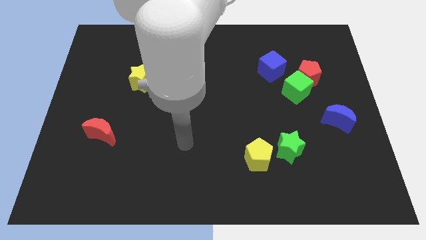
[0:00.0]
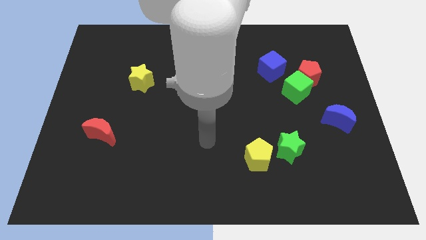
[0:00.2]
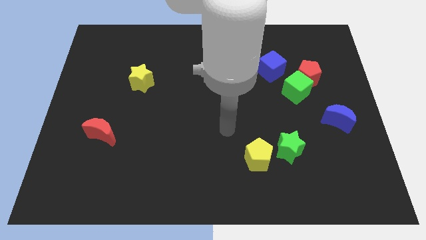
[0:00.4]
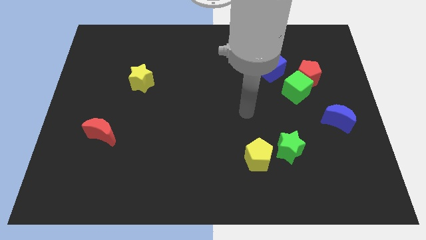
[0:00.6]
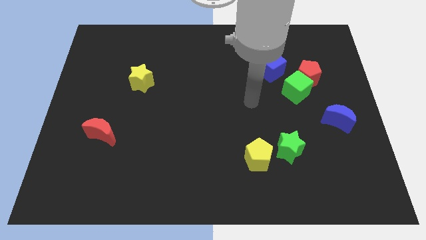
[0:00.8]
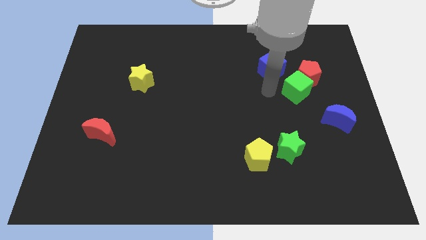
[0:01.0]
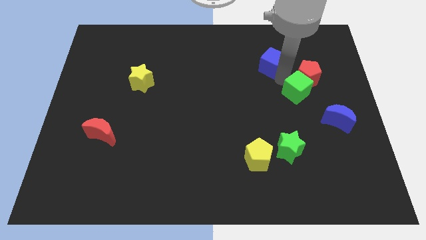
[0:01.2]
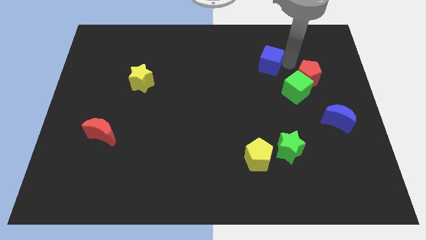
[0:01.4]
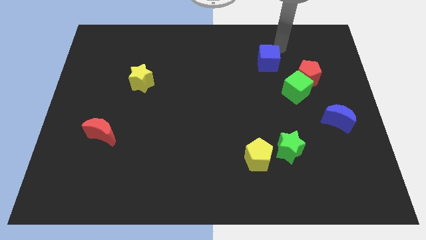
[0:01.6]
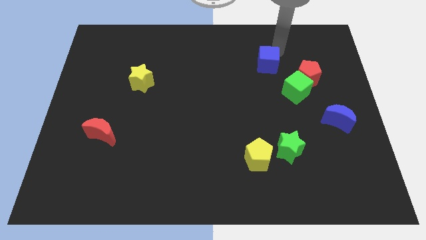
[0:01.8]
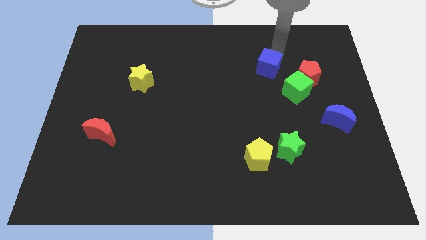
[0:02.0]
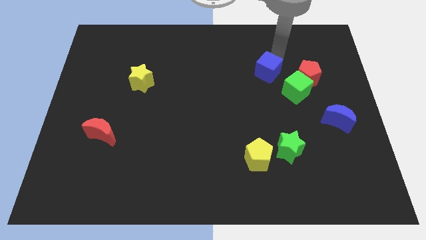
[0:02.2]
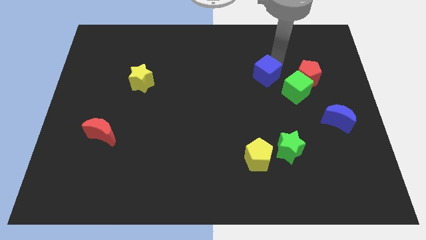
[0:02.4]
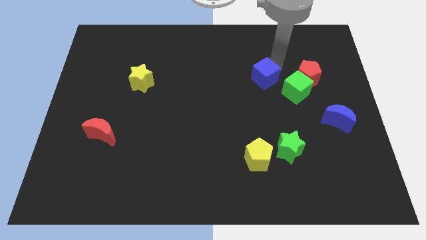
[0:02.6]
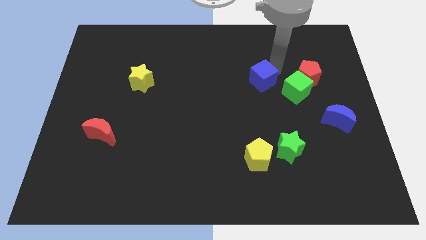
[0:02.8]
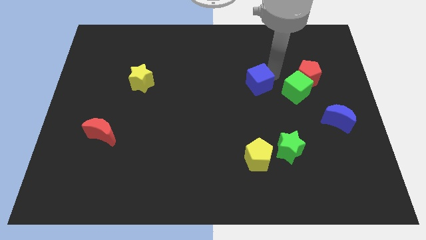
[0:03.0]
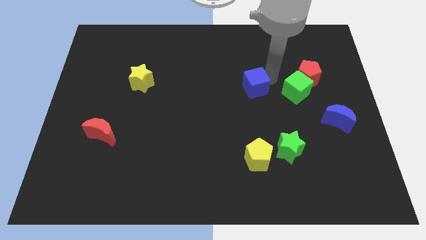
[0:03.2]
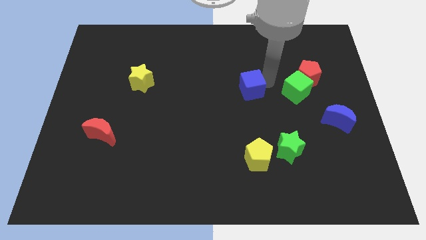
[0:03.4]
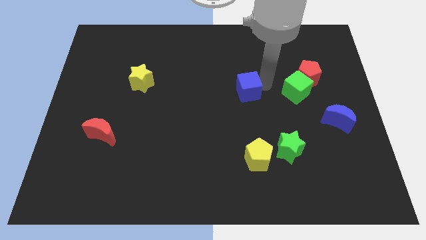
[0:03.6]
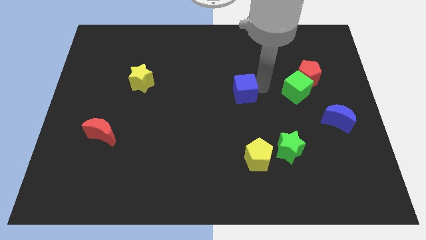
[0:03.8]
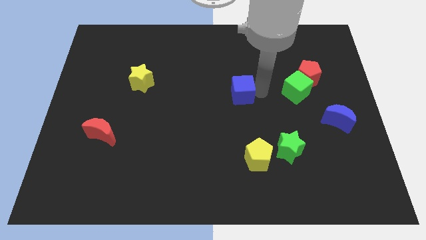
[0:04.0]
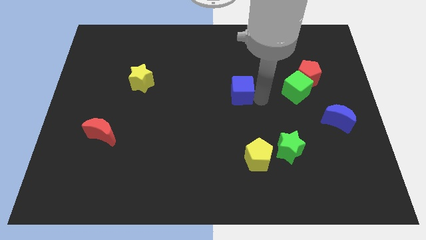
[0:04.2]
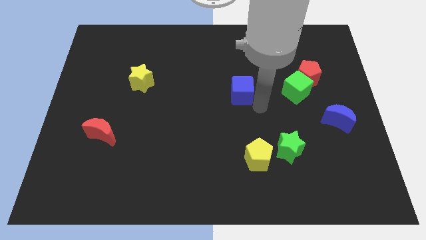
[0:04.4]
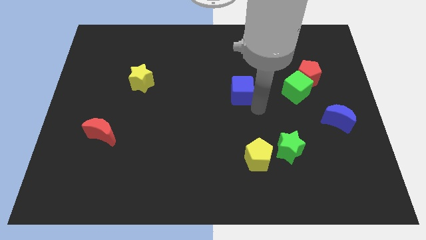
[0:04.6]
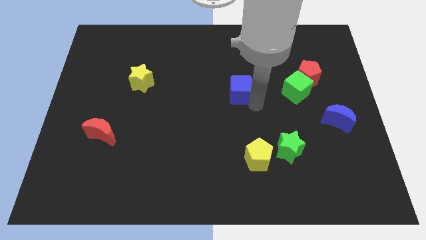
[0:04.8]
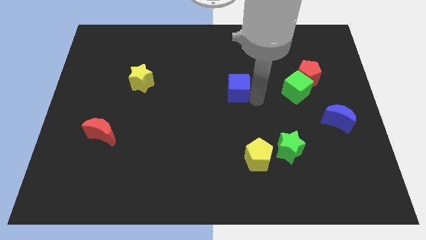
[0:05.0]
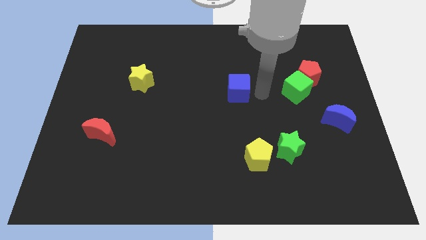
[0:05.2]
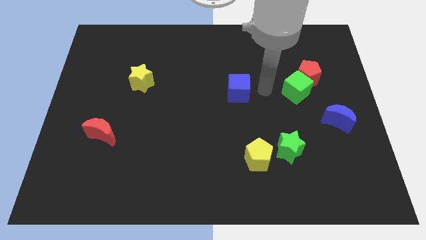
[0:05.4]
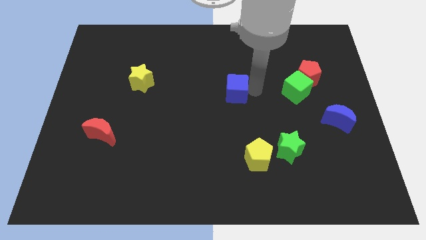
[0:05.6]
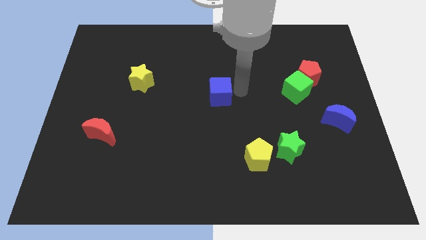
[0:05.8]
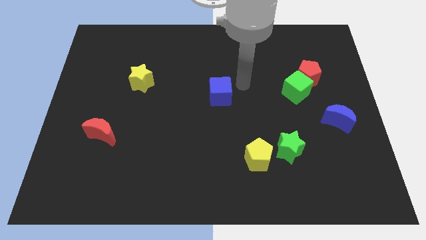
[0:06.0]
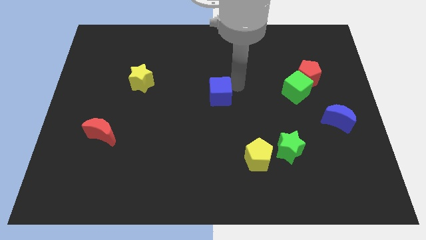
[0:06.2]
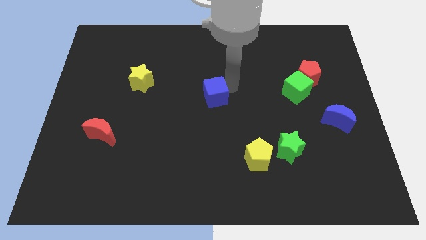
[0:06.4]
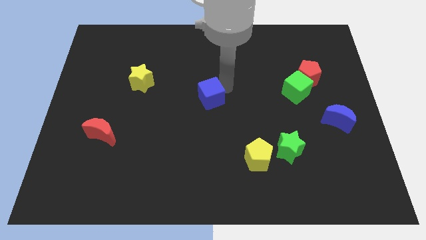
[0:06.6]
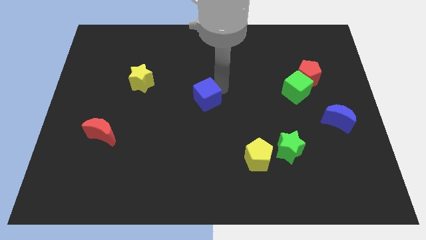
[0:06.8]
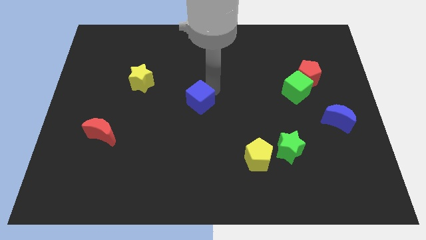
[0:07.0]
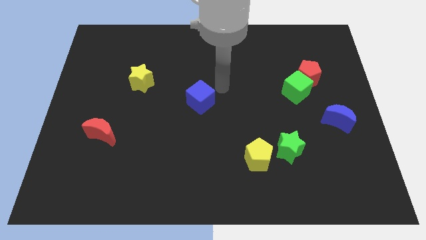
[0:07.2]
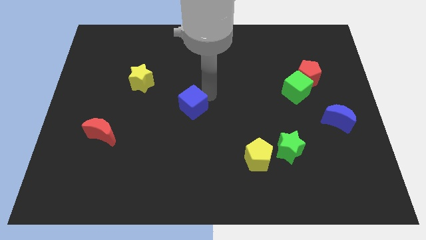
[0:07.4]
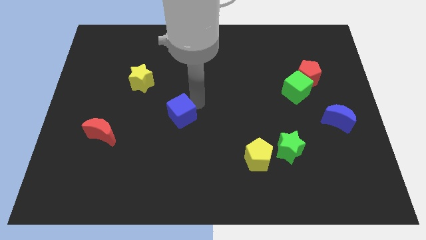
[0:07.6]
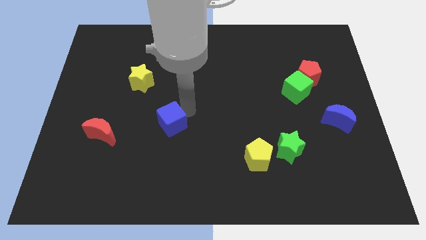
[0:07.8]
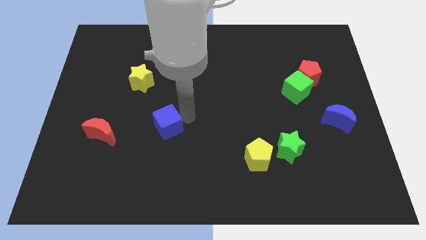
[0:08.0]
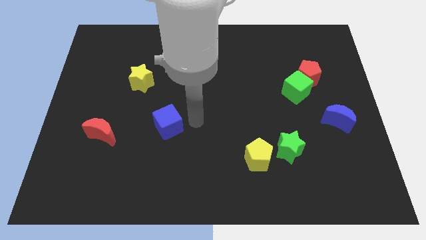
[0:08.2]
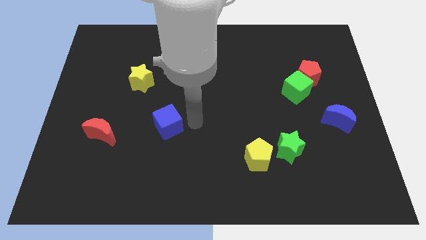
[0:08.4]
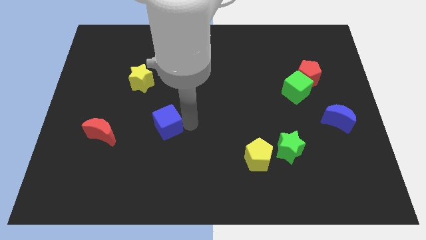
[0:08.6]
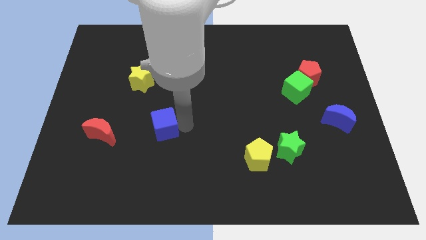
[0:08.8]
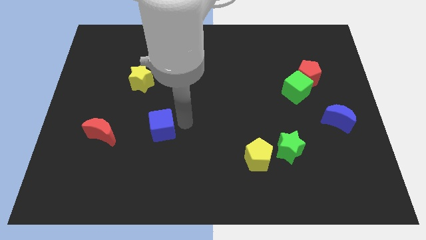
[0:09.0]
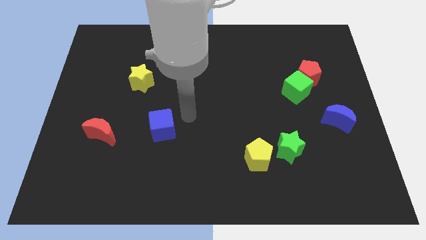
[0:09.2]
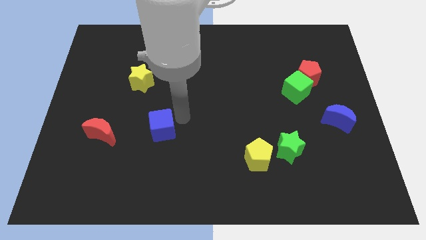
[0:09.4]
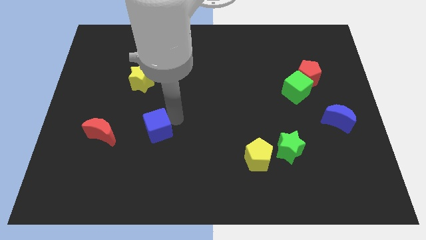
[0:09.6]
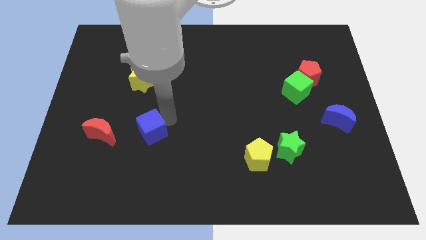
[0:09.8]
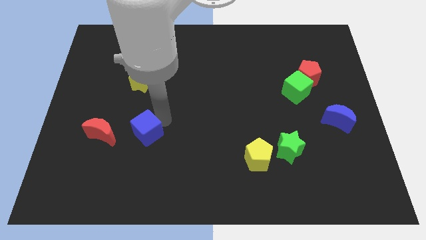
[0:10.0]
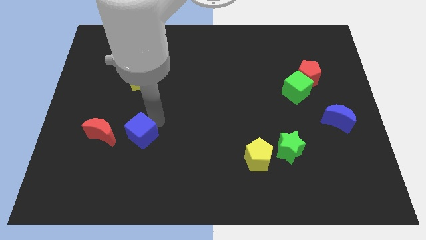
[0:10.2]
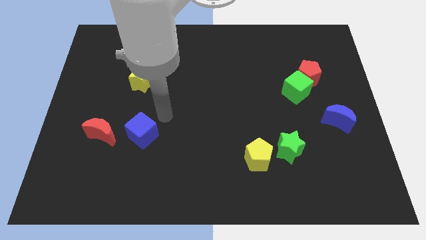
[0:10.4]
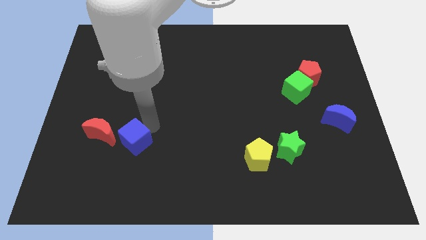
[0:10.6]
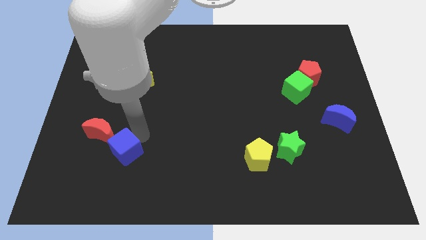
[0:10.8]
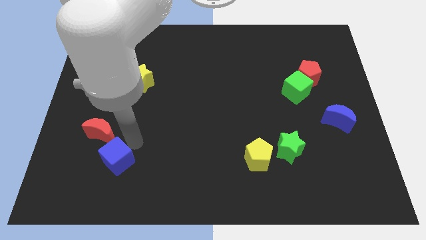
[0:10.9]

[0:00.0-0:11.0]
slide the blue cube to the bottom of the red moon
